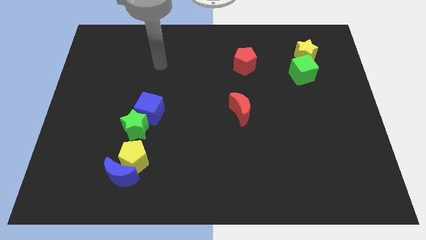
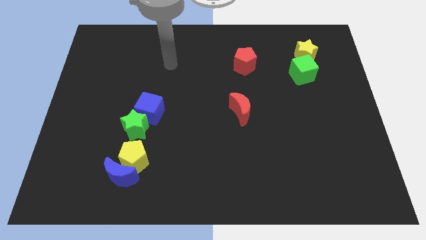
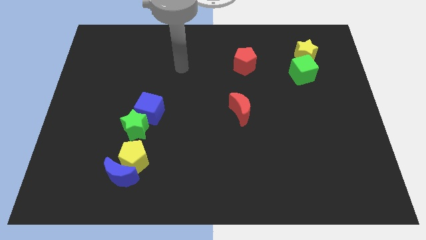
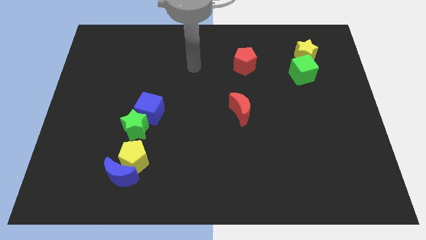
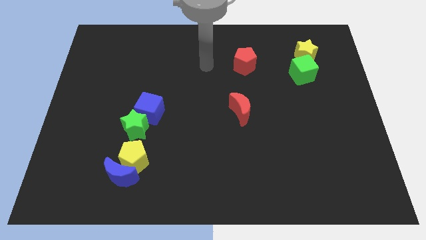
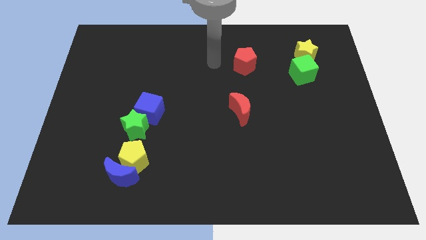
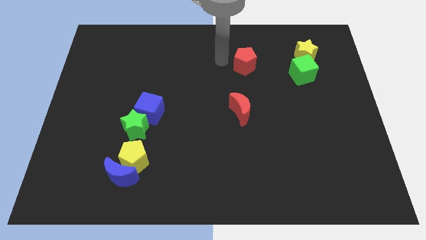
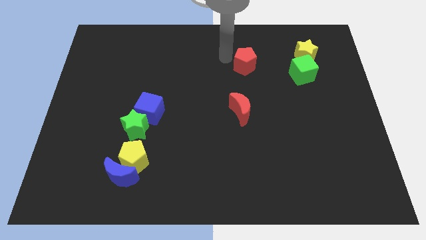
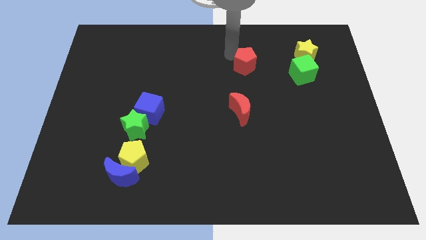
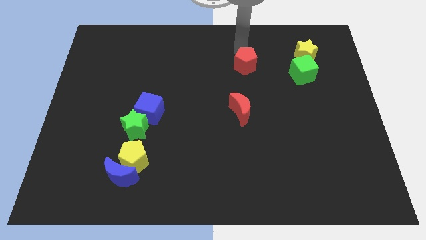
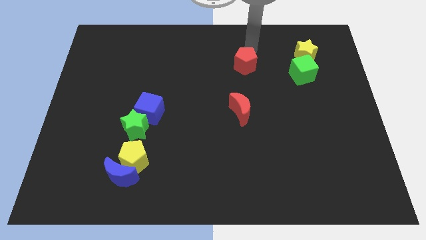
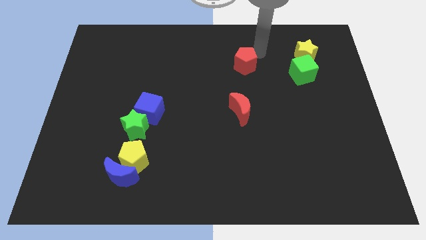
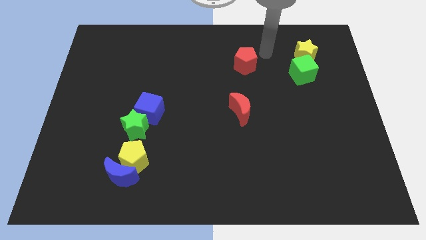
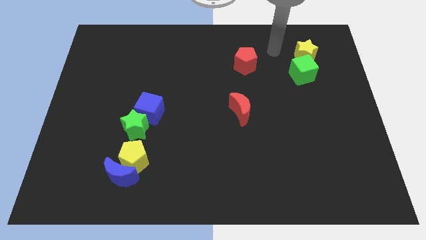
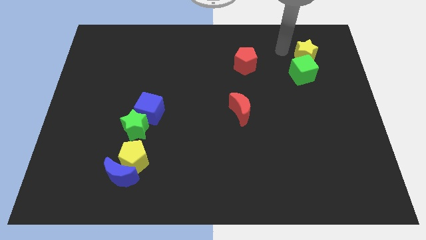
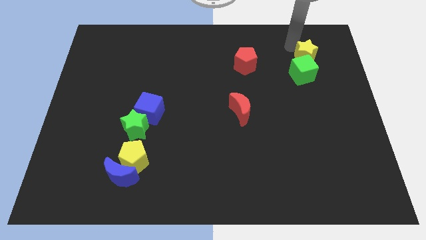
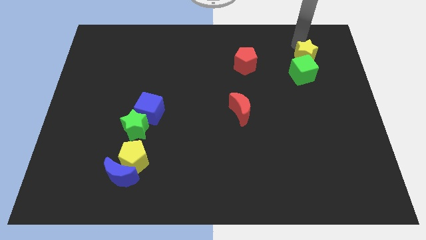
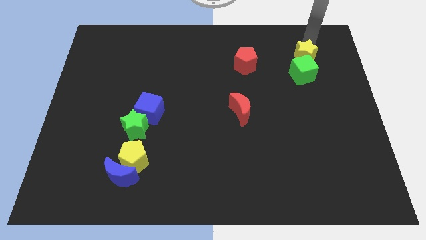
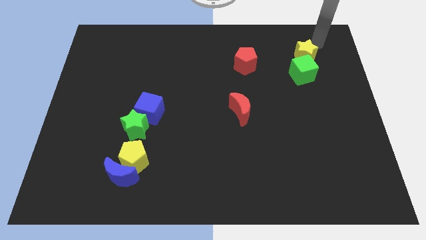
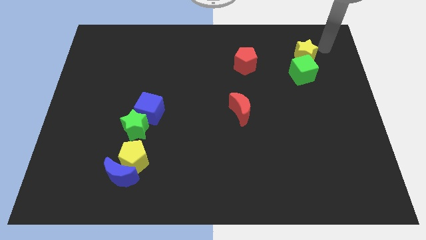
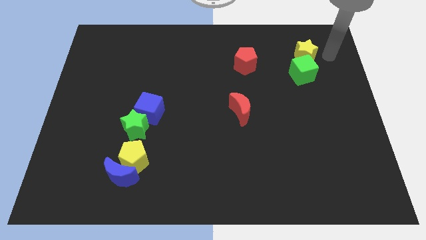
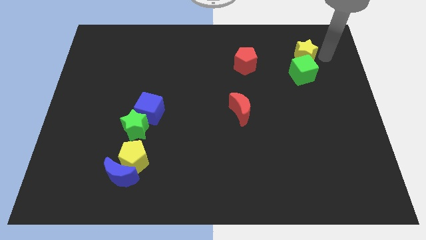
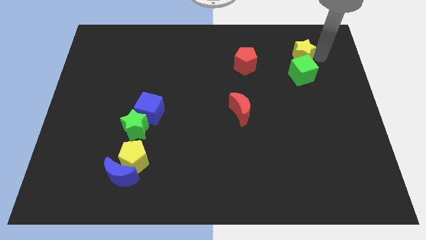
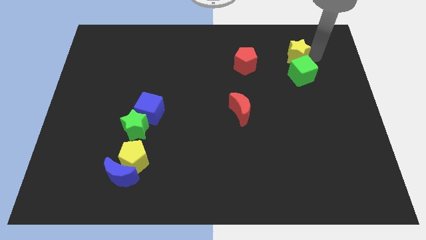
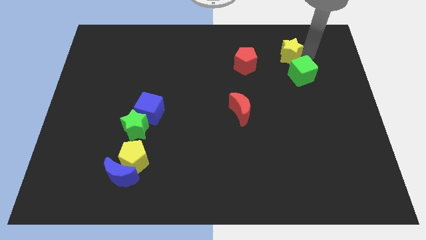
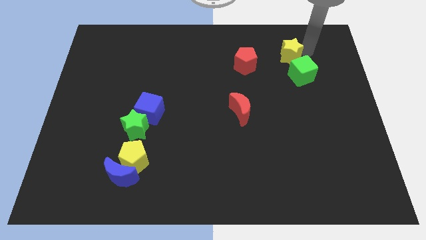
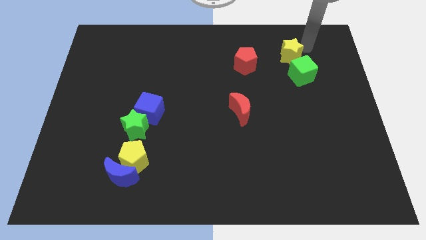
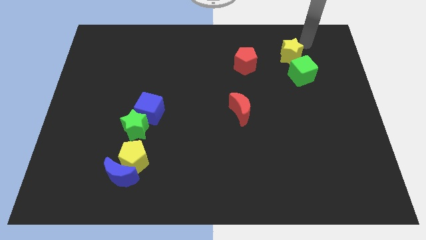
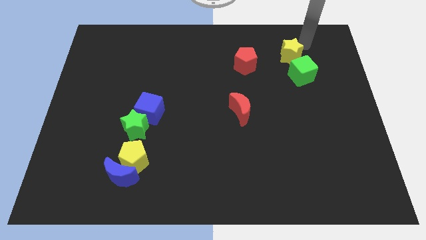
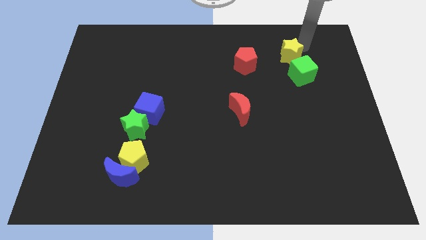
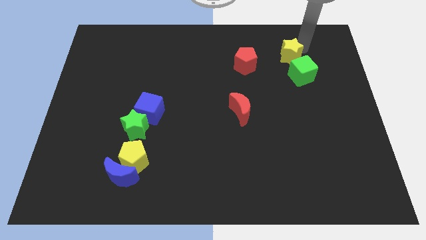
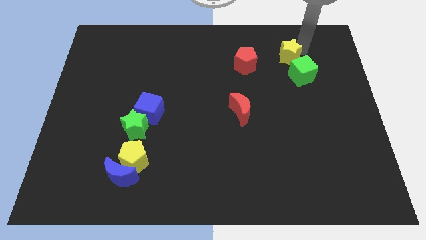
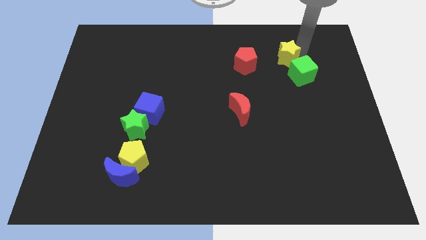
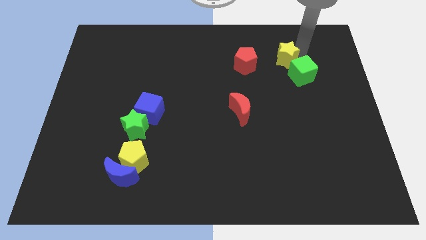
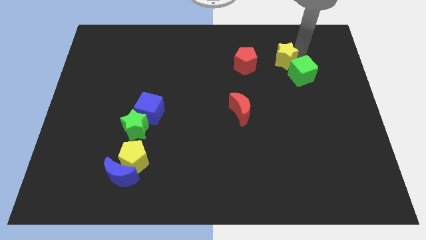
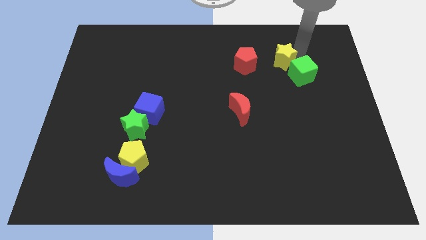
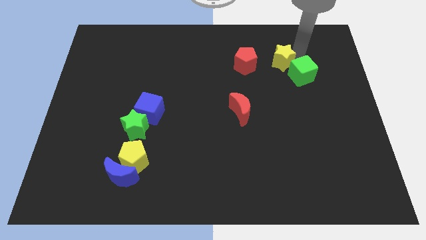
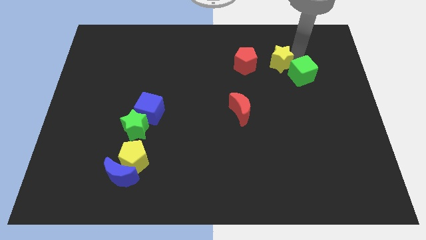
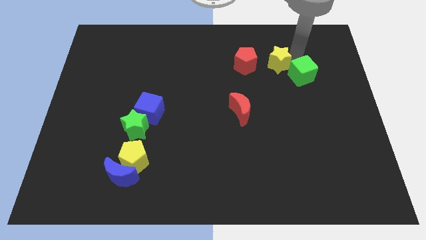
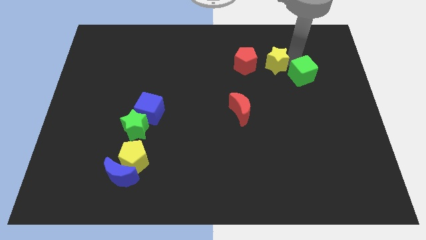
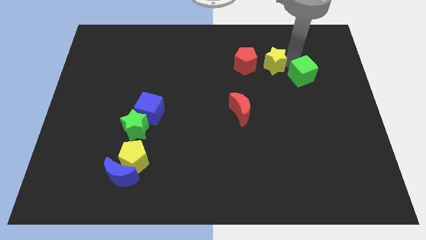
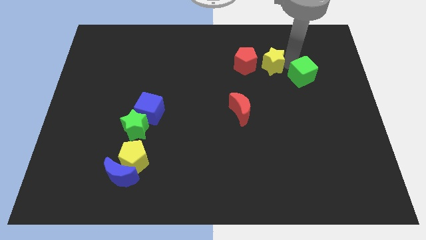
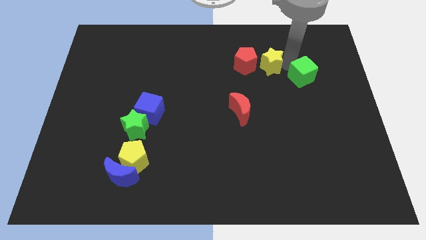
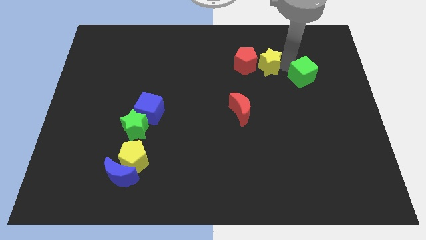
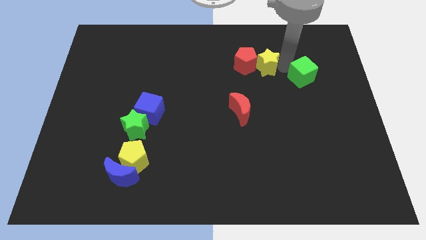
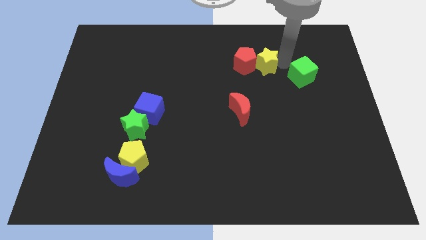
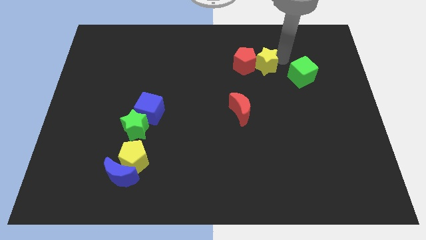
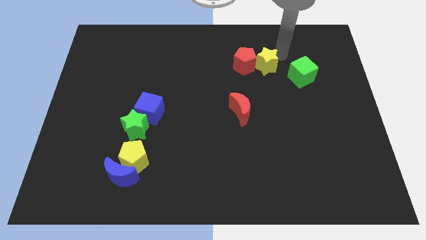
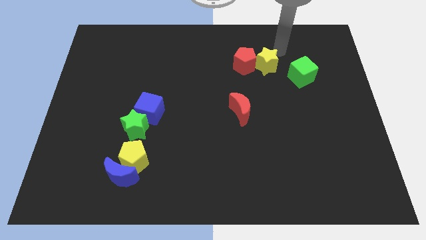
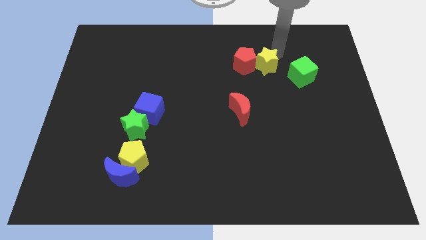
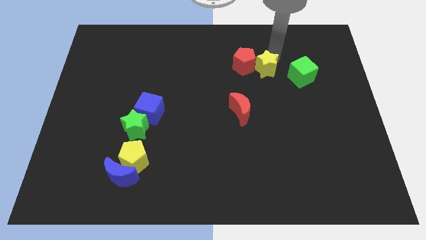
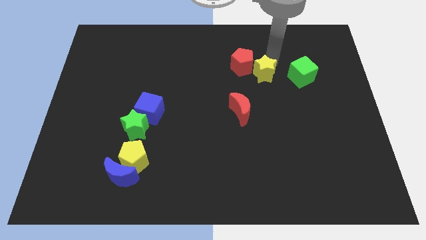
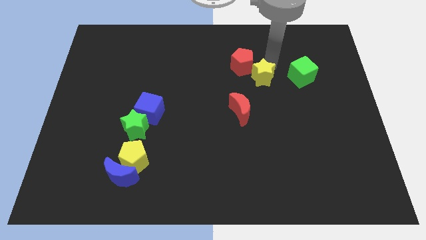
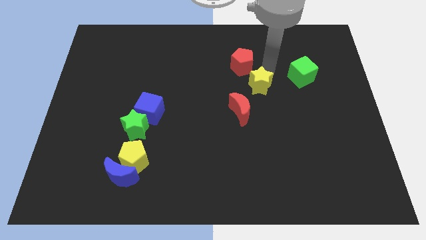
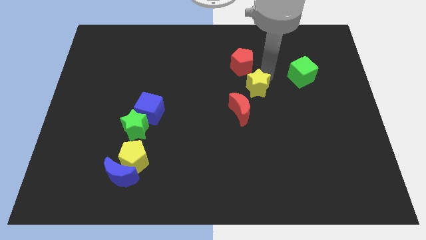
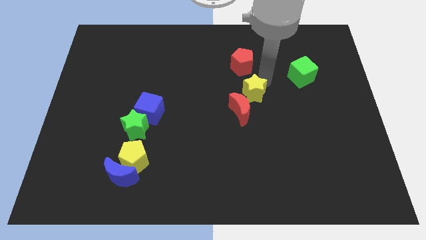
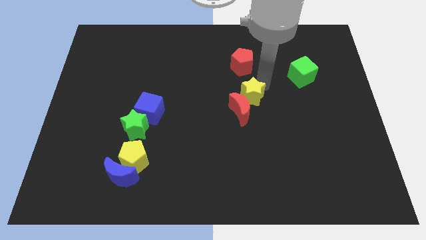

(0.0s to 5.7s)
move the yellow star down and to the left diagonally

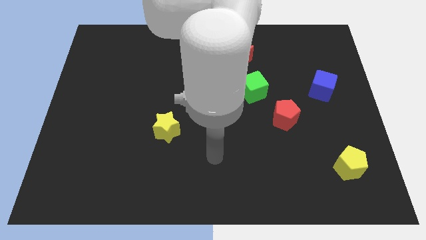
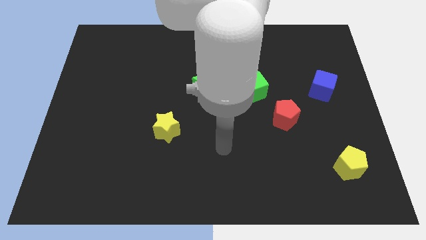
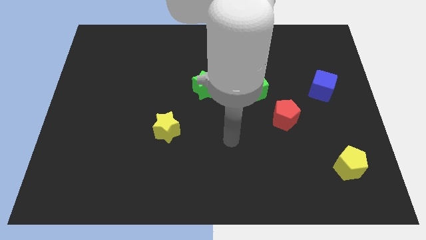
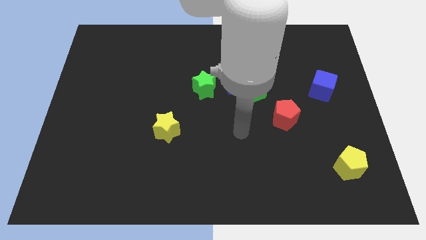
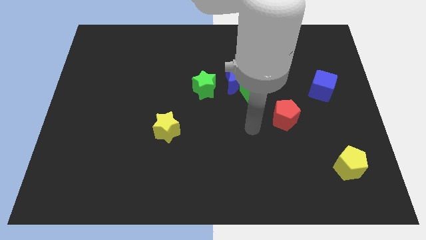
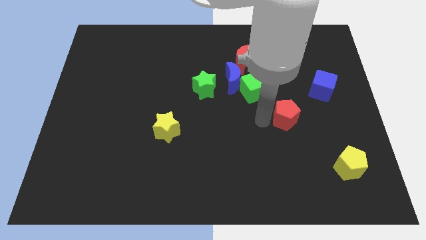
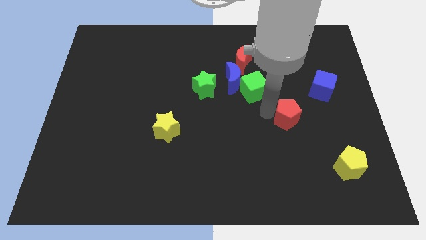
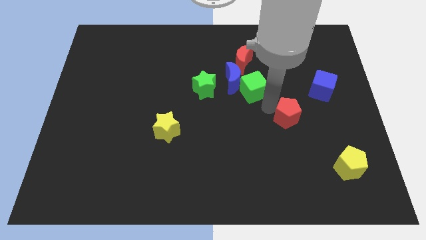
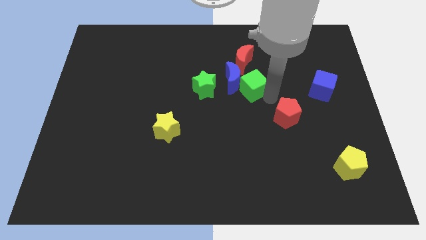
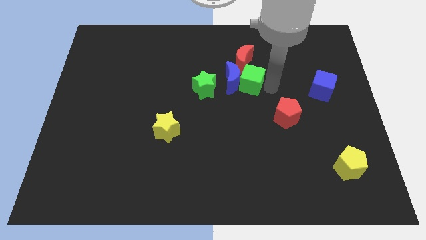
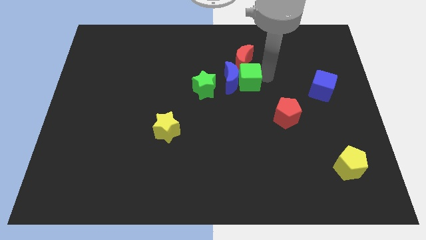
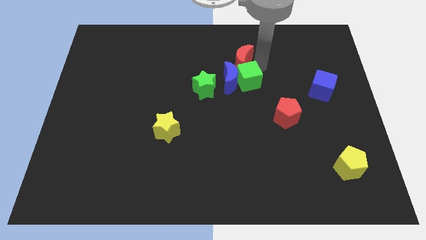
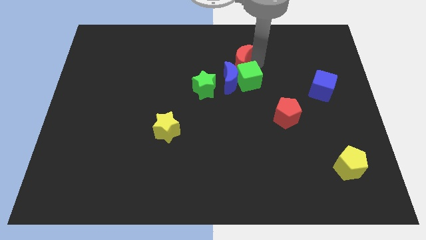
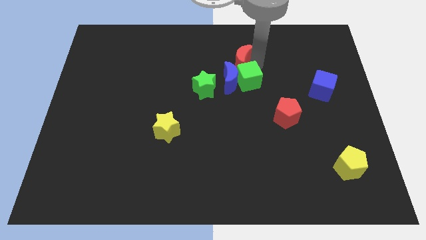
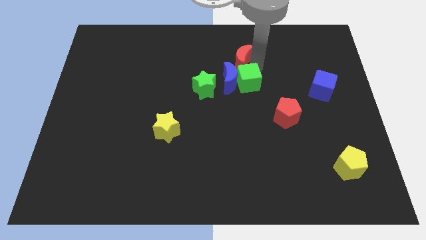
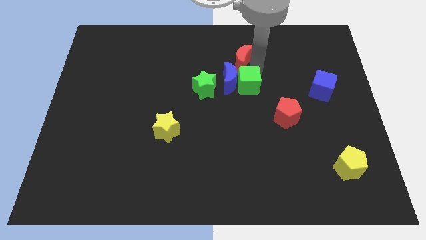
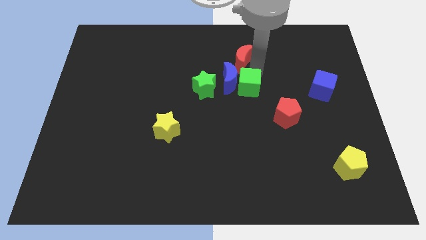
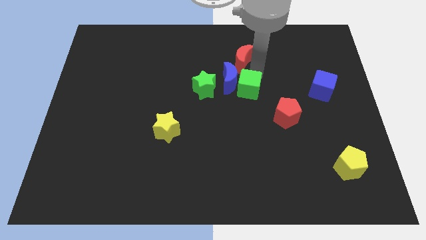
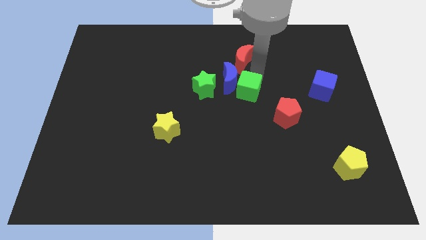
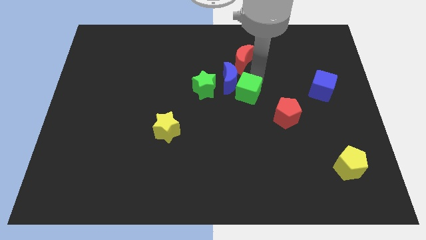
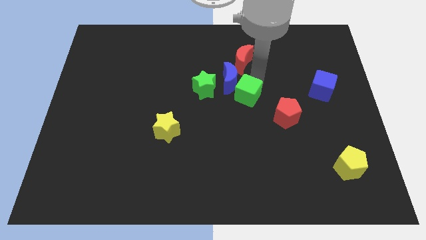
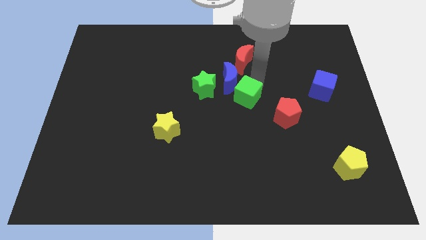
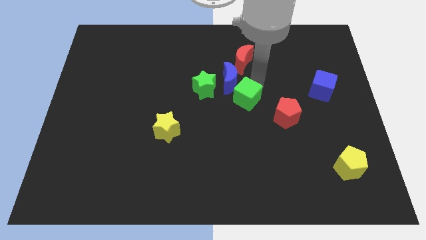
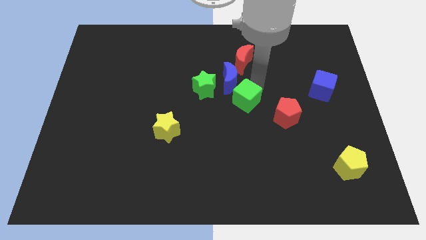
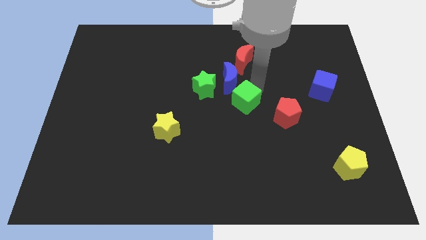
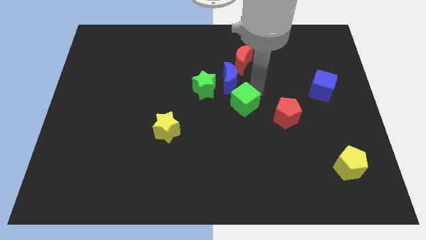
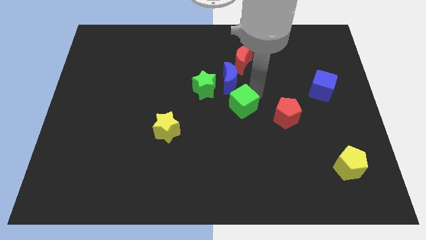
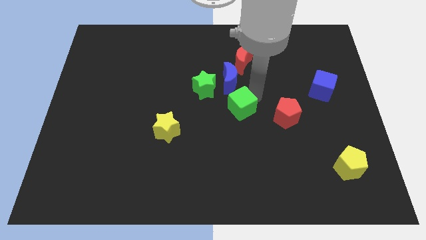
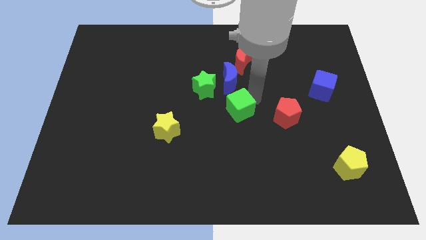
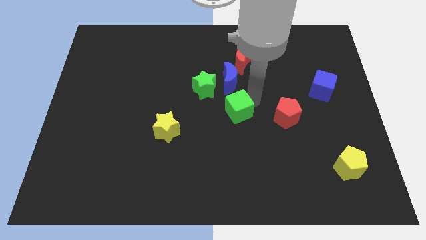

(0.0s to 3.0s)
slightly push the green cube down and left diagonally
